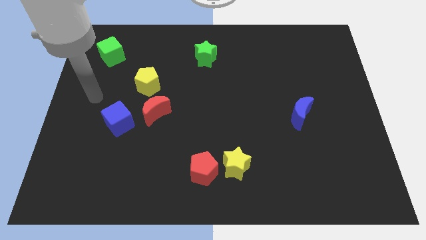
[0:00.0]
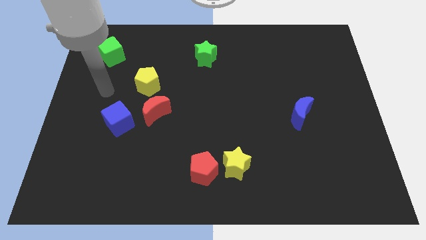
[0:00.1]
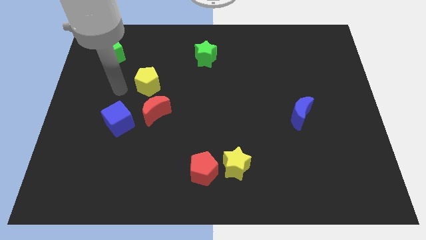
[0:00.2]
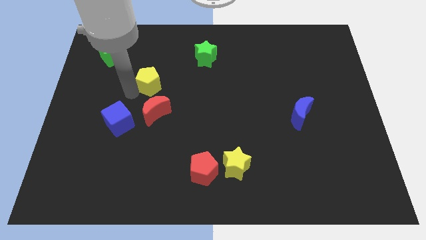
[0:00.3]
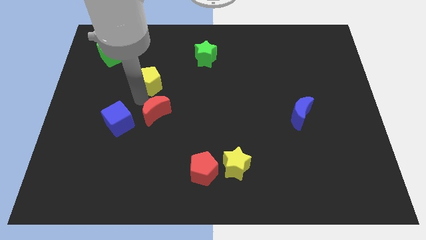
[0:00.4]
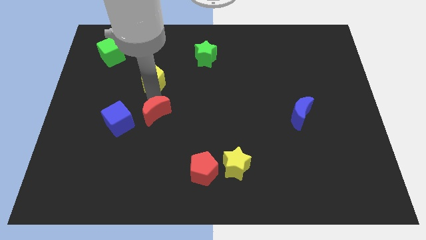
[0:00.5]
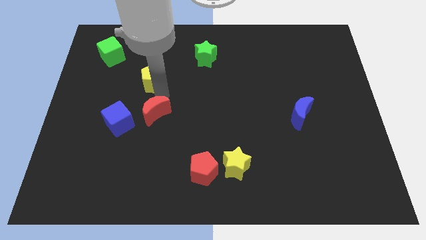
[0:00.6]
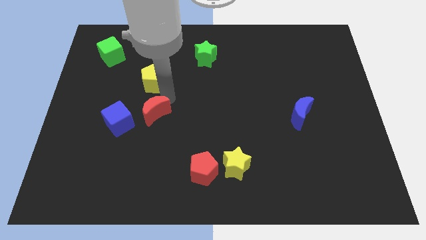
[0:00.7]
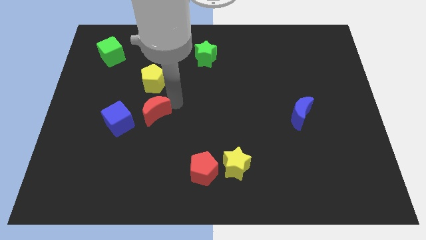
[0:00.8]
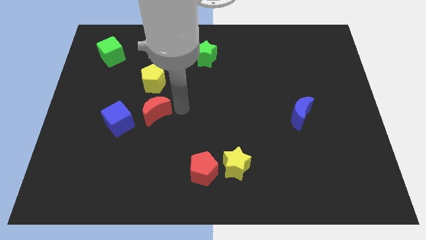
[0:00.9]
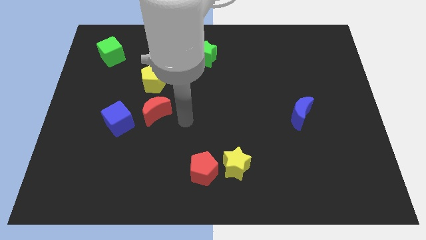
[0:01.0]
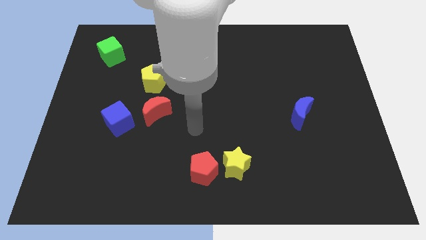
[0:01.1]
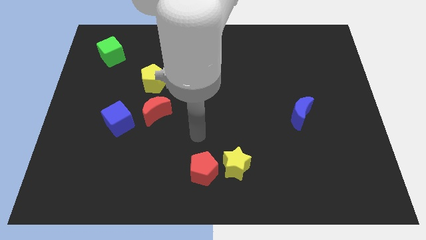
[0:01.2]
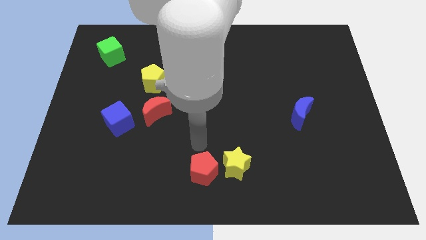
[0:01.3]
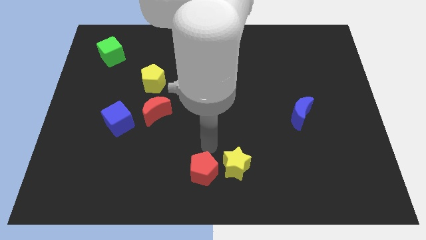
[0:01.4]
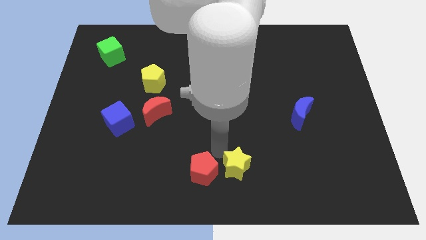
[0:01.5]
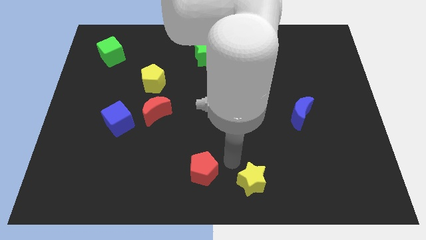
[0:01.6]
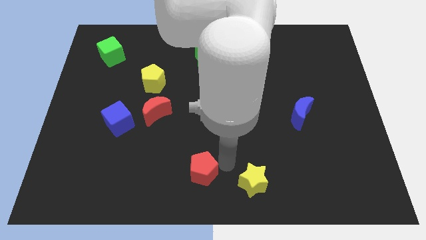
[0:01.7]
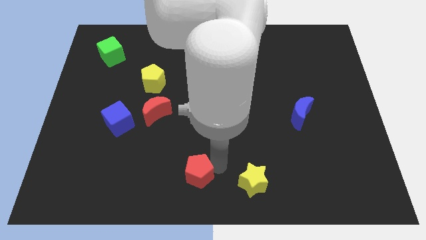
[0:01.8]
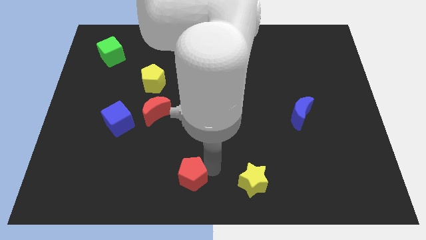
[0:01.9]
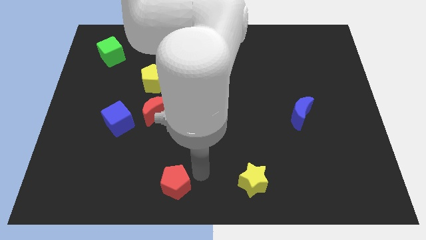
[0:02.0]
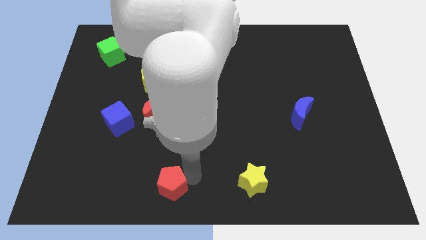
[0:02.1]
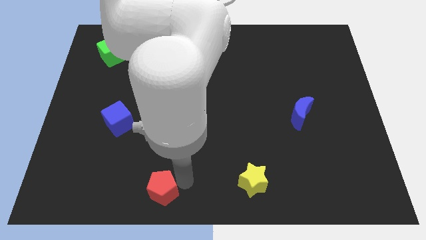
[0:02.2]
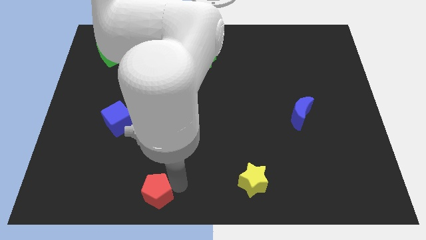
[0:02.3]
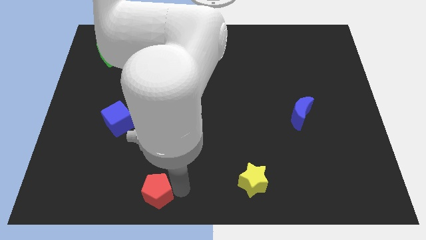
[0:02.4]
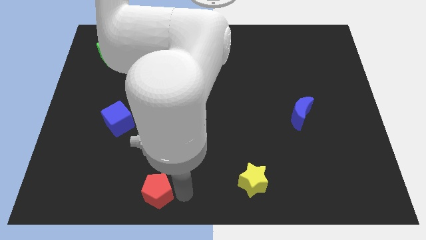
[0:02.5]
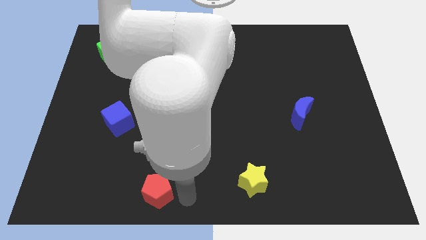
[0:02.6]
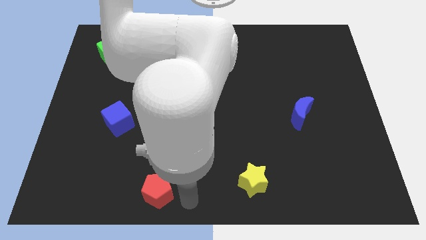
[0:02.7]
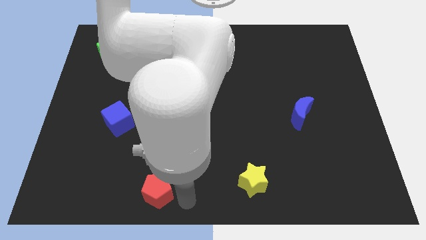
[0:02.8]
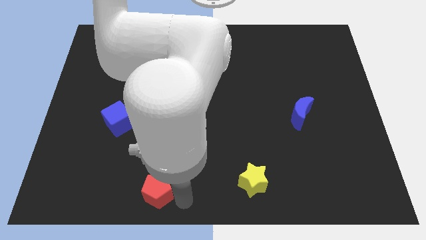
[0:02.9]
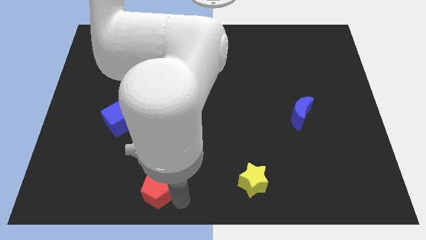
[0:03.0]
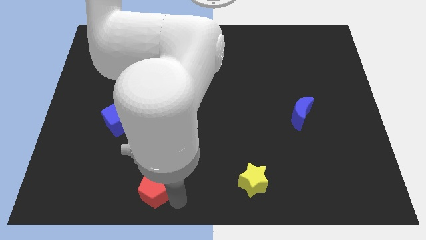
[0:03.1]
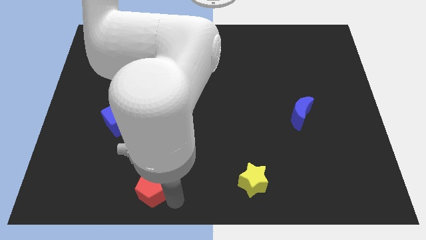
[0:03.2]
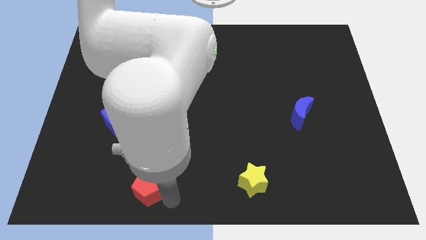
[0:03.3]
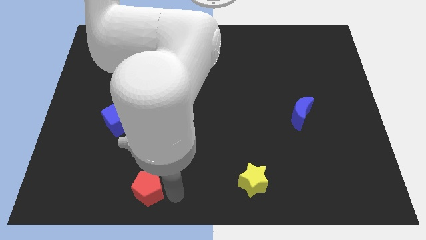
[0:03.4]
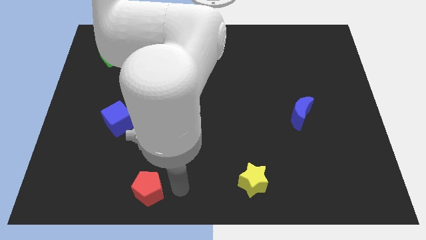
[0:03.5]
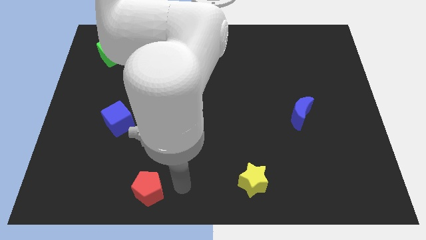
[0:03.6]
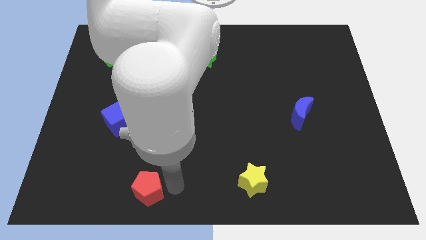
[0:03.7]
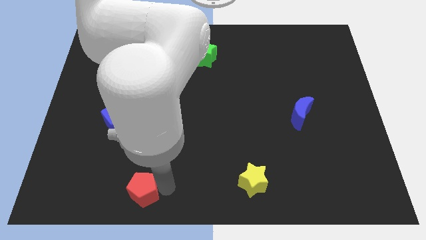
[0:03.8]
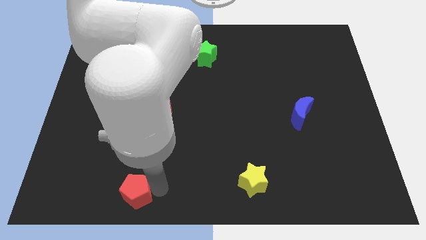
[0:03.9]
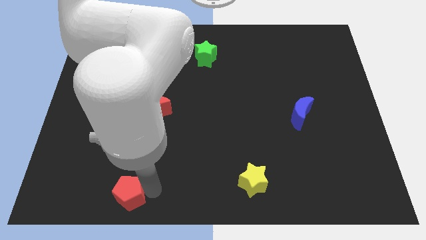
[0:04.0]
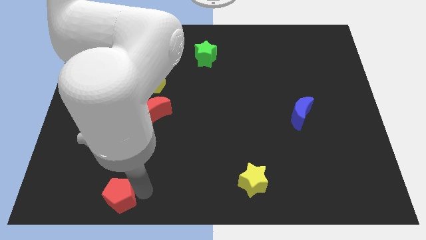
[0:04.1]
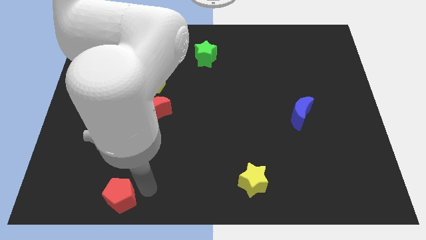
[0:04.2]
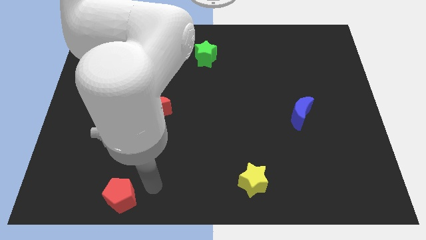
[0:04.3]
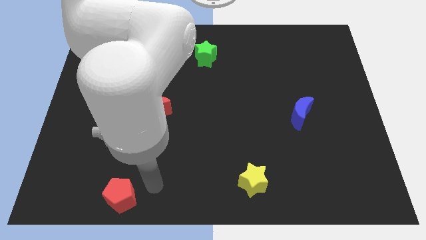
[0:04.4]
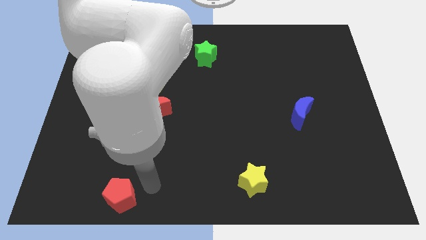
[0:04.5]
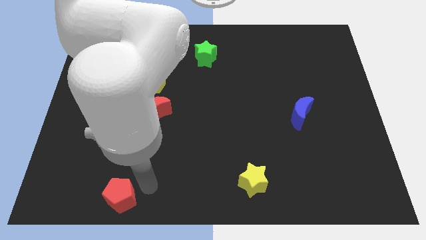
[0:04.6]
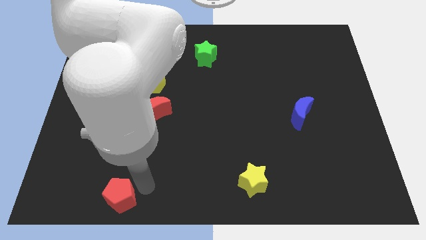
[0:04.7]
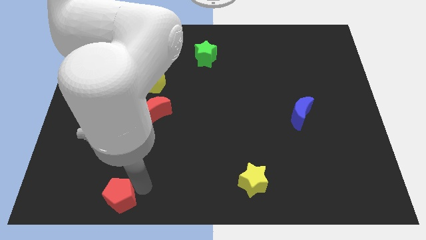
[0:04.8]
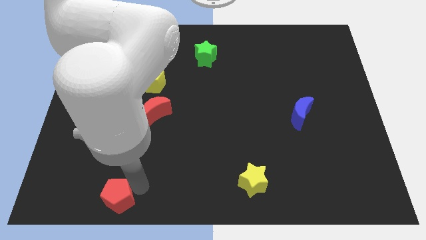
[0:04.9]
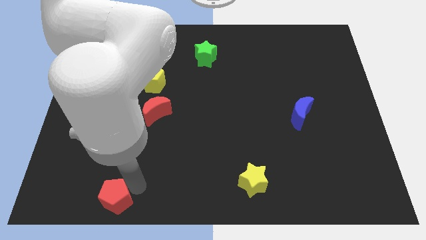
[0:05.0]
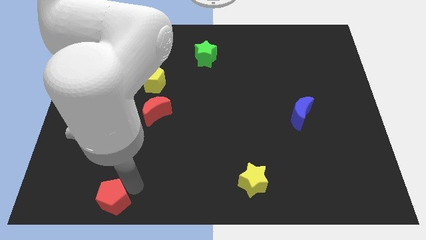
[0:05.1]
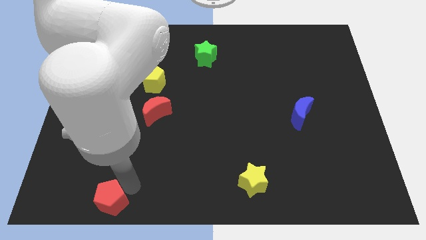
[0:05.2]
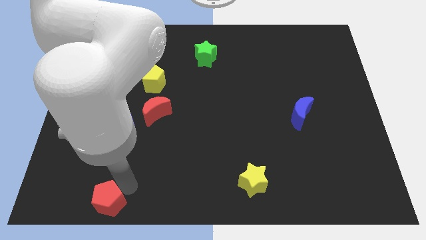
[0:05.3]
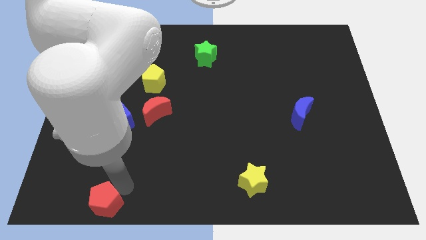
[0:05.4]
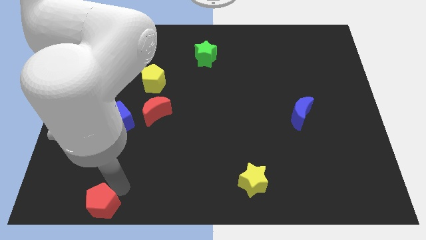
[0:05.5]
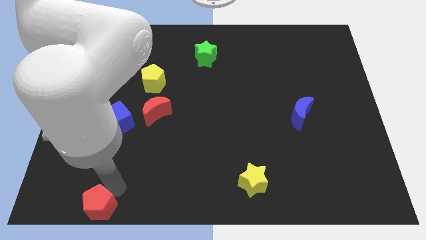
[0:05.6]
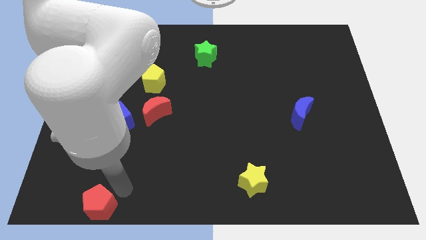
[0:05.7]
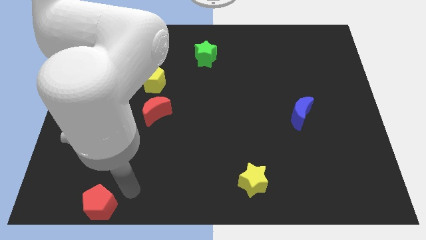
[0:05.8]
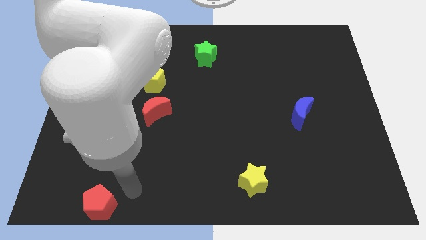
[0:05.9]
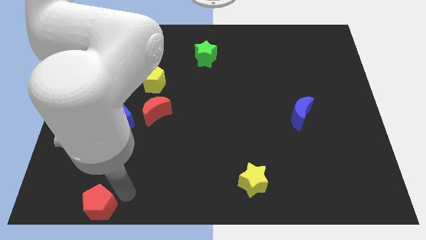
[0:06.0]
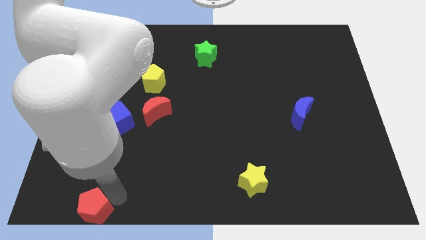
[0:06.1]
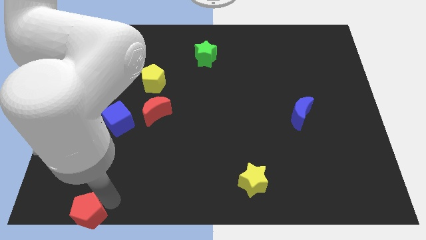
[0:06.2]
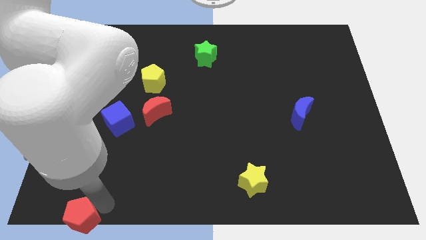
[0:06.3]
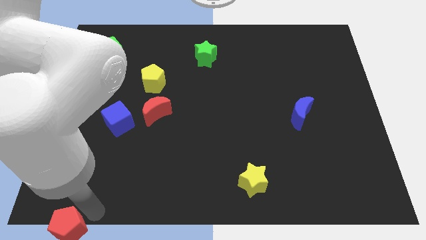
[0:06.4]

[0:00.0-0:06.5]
slide the red pentagon to the bottom left corner
